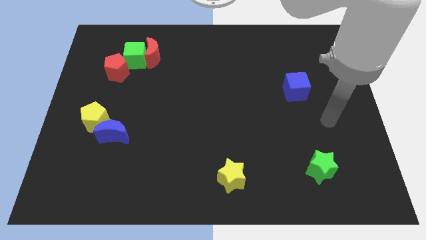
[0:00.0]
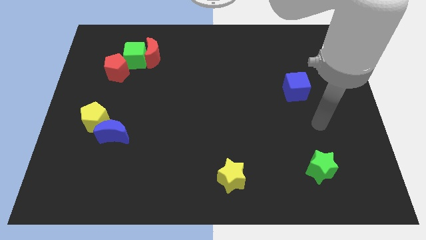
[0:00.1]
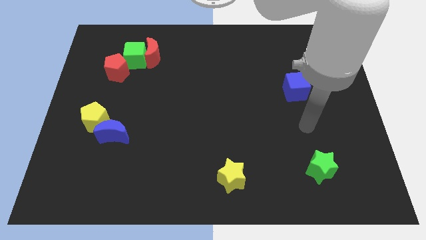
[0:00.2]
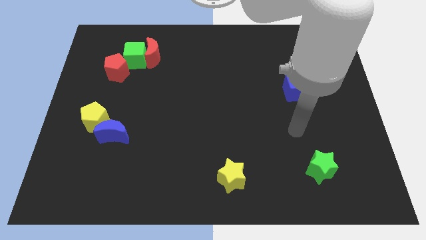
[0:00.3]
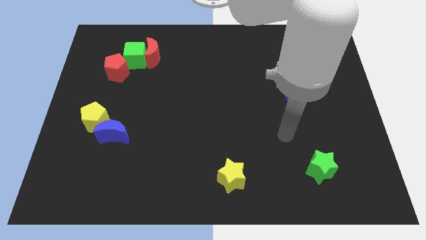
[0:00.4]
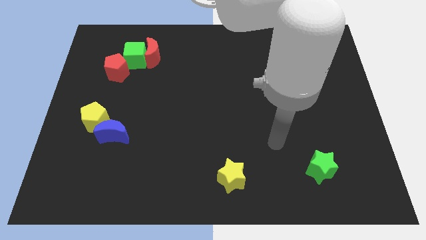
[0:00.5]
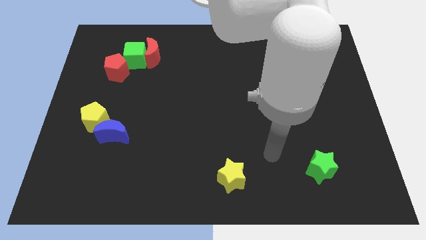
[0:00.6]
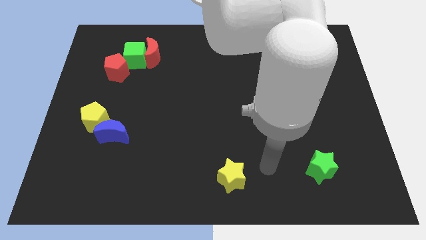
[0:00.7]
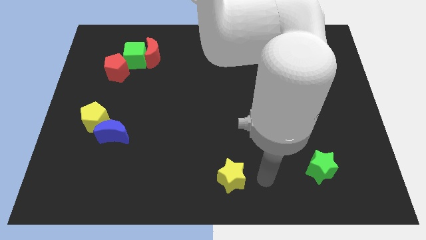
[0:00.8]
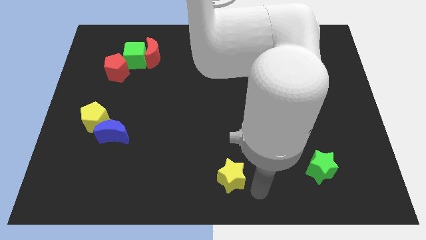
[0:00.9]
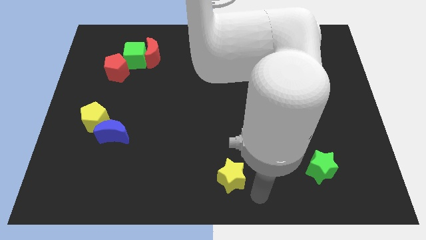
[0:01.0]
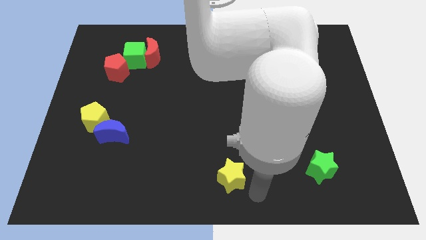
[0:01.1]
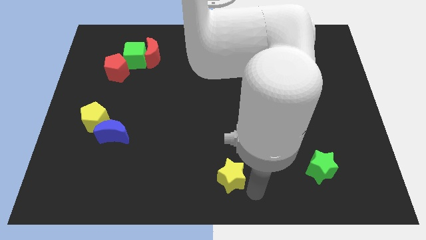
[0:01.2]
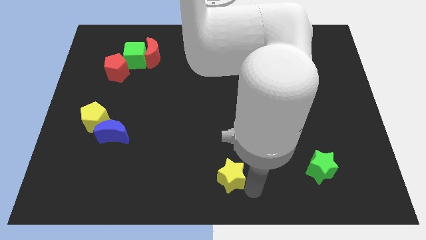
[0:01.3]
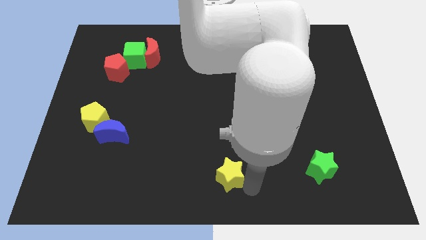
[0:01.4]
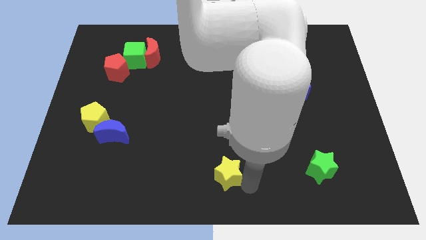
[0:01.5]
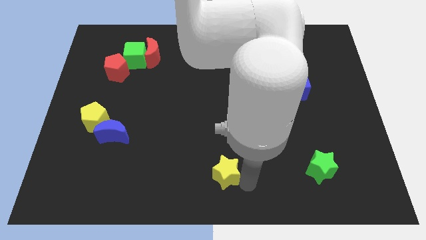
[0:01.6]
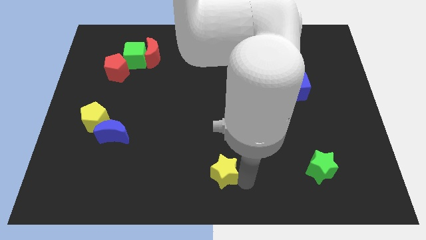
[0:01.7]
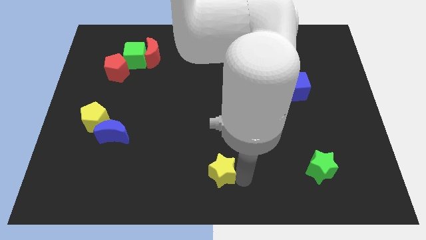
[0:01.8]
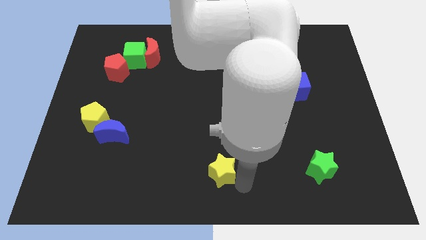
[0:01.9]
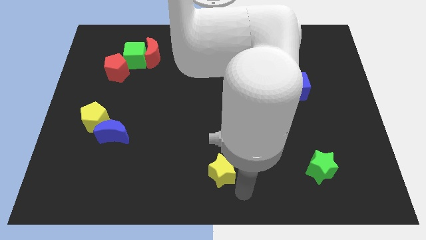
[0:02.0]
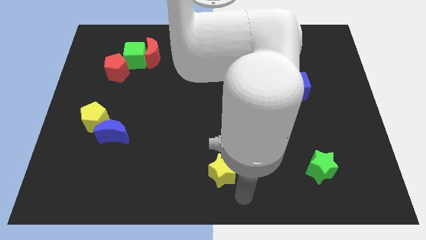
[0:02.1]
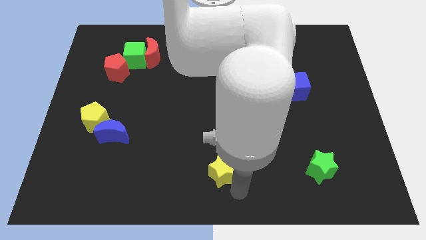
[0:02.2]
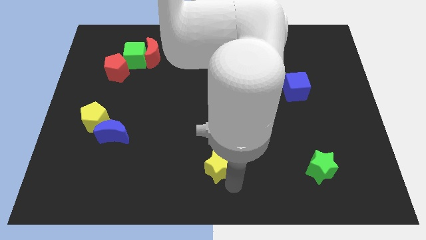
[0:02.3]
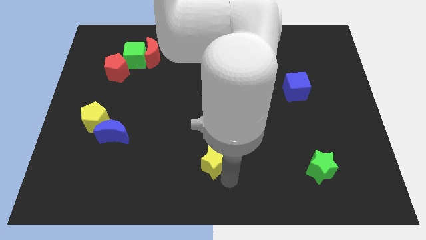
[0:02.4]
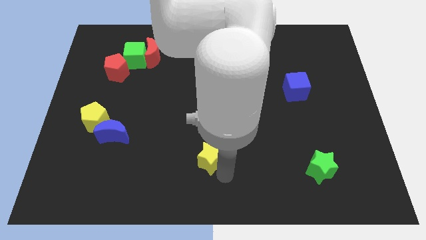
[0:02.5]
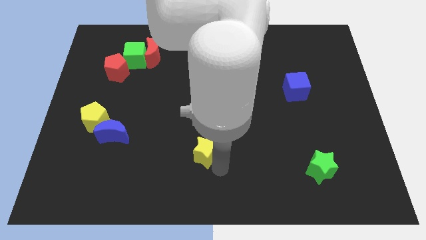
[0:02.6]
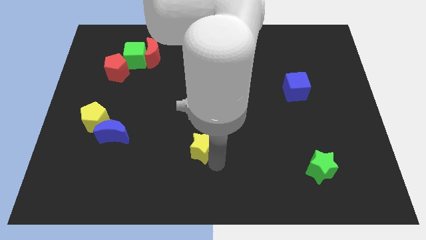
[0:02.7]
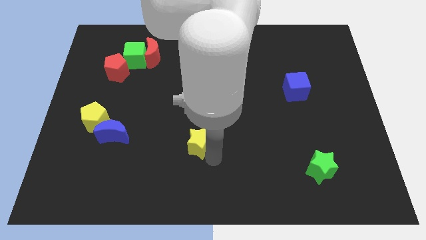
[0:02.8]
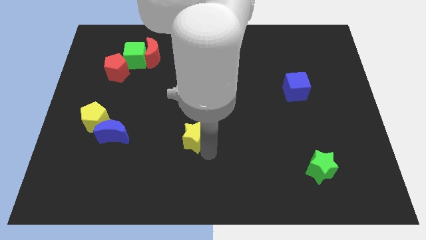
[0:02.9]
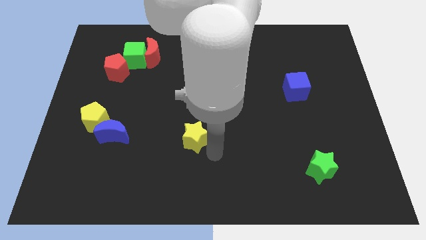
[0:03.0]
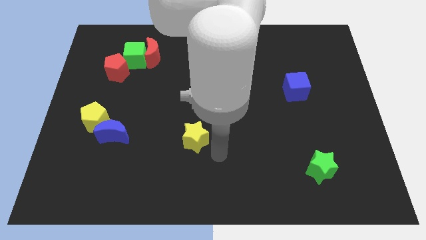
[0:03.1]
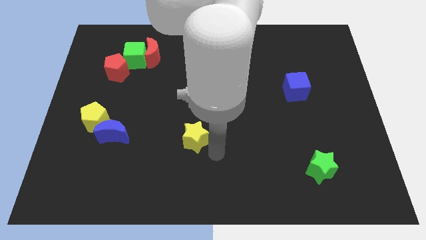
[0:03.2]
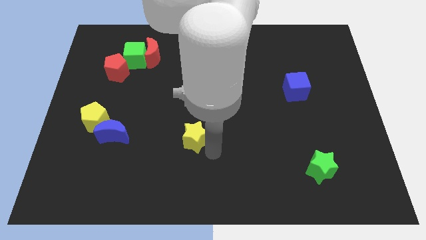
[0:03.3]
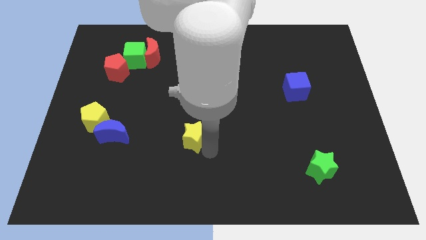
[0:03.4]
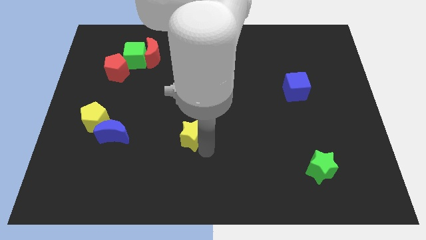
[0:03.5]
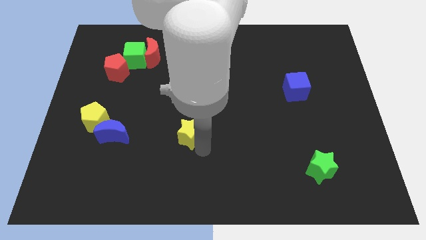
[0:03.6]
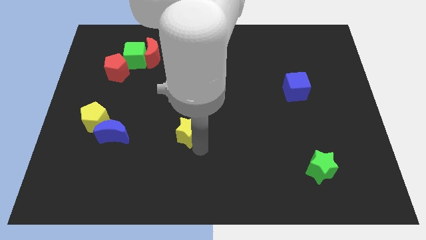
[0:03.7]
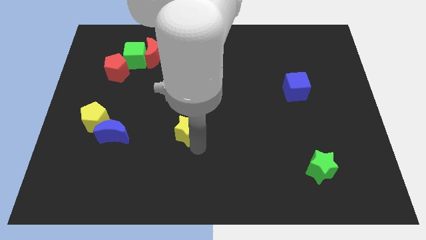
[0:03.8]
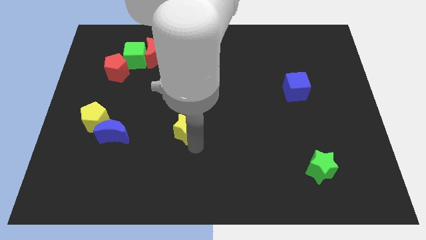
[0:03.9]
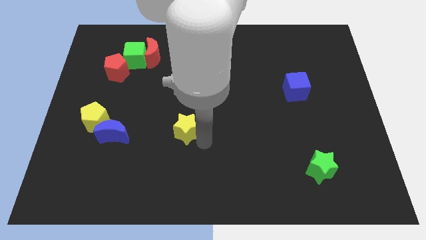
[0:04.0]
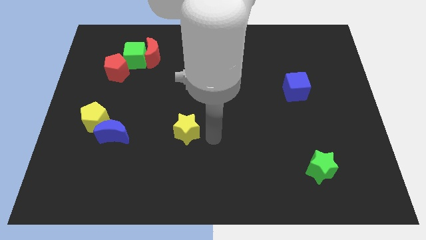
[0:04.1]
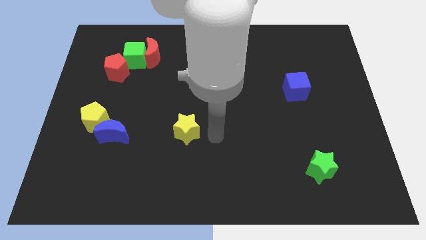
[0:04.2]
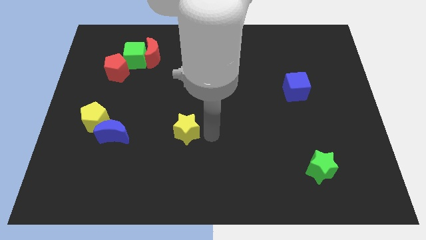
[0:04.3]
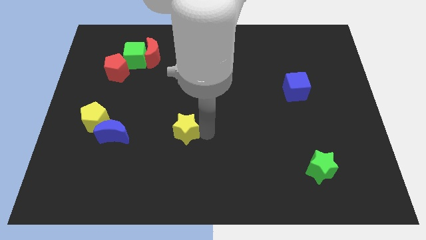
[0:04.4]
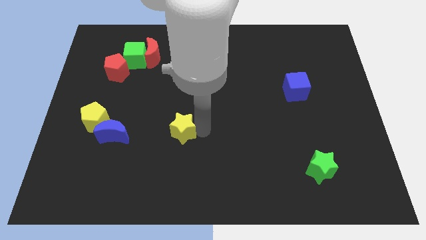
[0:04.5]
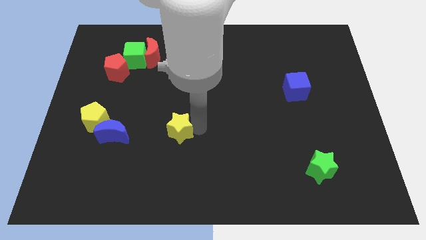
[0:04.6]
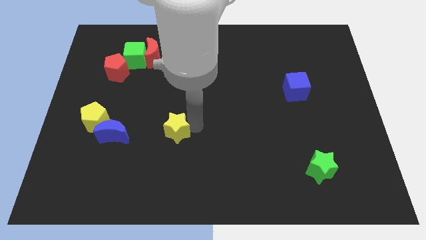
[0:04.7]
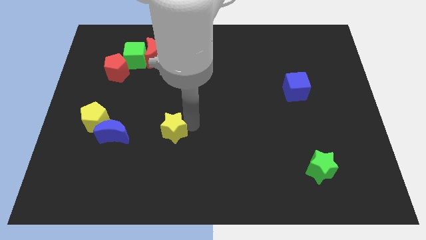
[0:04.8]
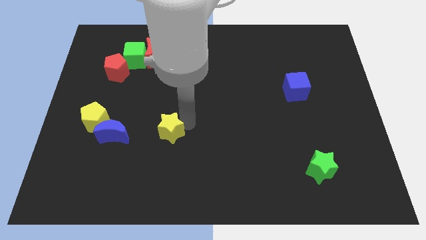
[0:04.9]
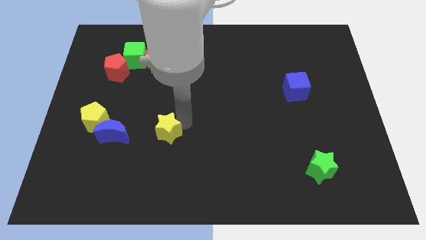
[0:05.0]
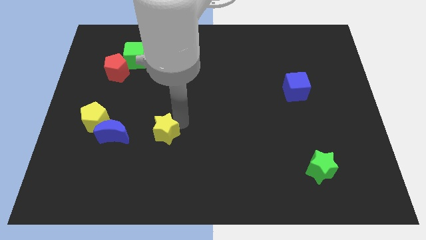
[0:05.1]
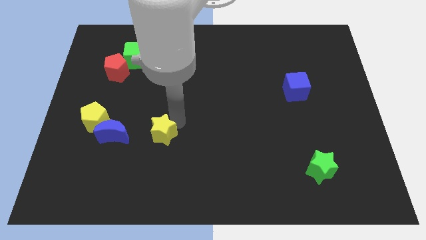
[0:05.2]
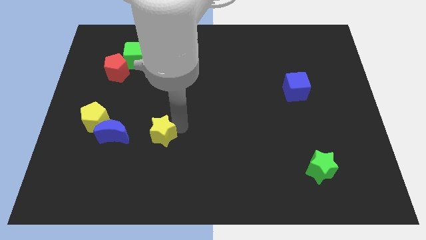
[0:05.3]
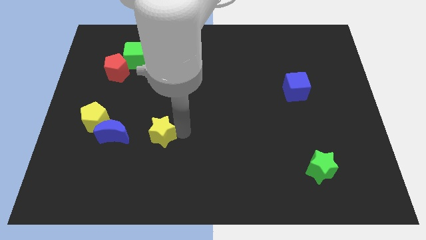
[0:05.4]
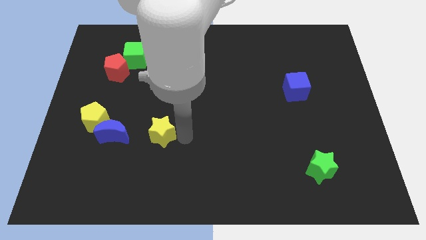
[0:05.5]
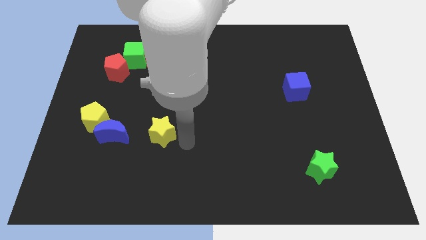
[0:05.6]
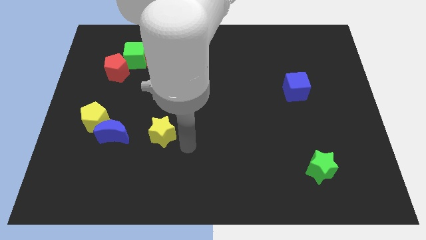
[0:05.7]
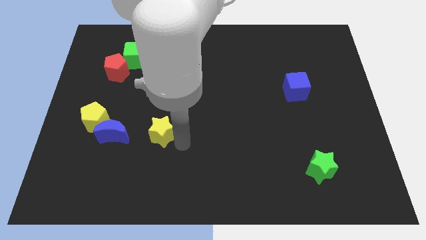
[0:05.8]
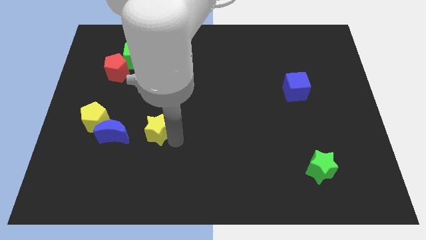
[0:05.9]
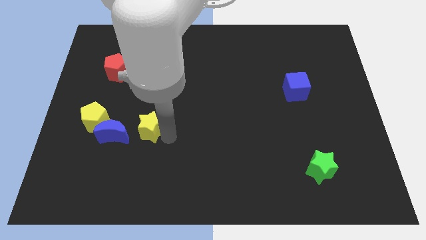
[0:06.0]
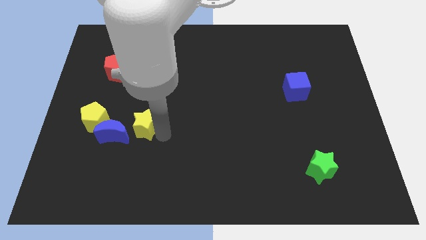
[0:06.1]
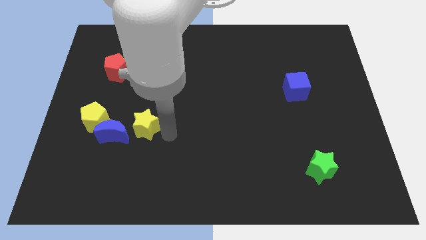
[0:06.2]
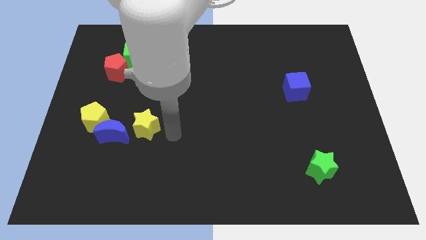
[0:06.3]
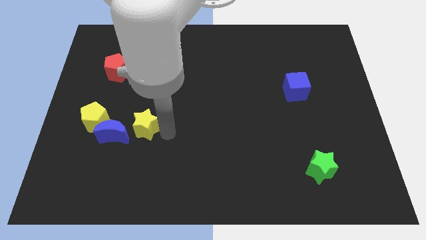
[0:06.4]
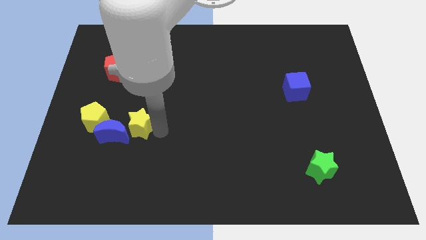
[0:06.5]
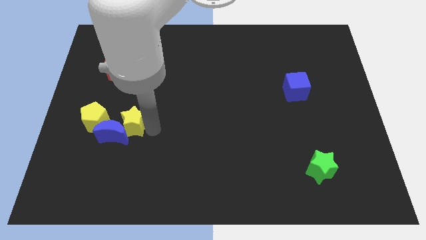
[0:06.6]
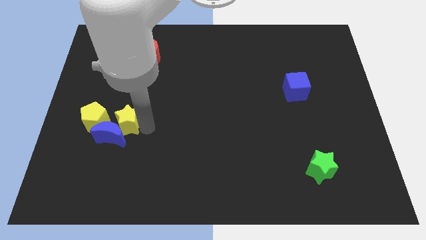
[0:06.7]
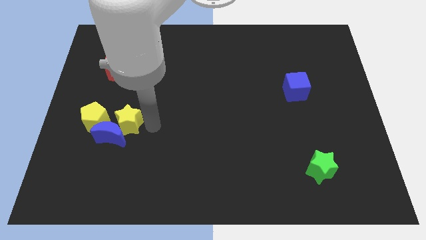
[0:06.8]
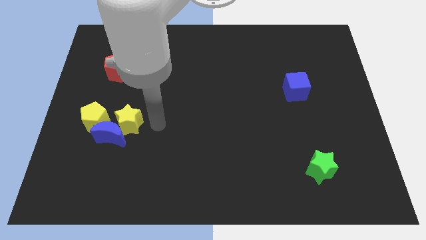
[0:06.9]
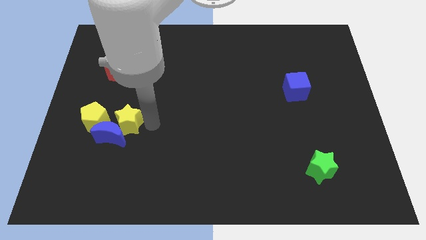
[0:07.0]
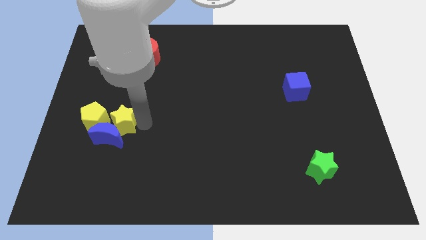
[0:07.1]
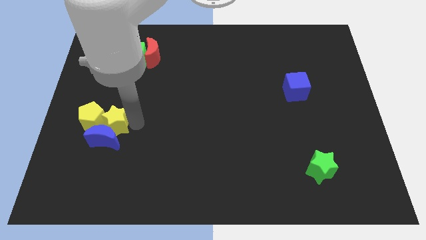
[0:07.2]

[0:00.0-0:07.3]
put the yellow star to the yellow pentagon

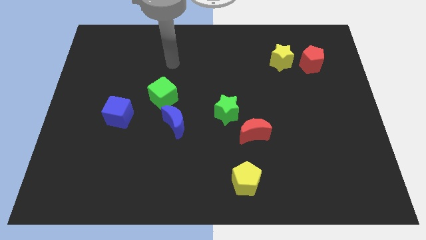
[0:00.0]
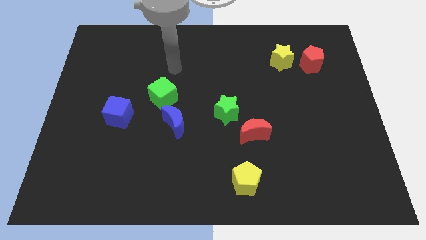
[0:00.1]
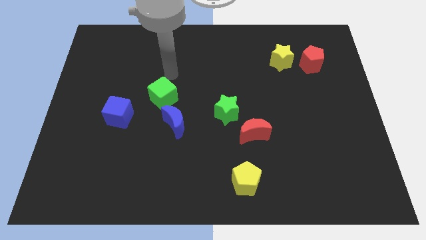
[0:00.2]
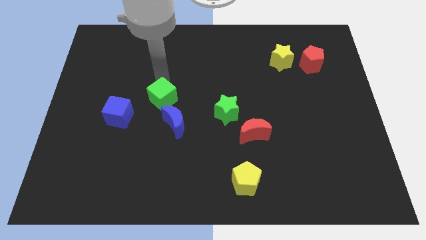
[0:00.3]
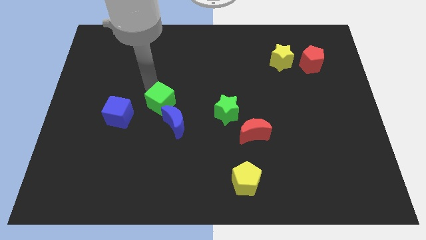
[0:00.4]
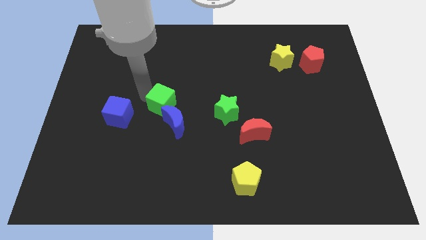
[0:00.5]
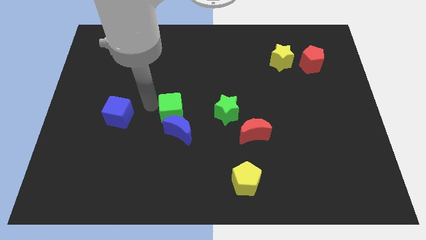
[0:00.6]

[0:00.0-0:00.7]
push the blue moon towards the green cube
